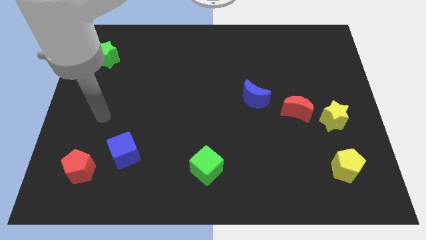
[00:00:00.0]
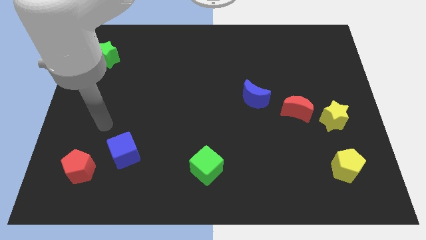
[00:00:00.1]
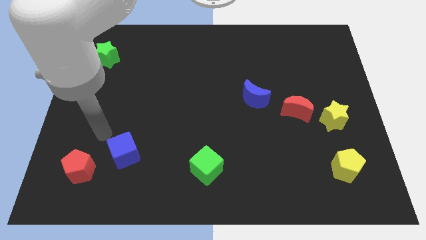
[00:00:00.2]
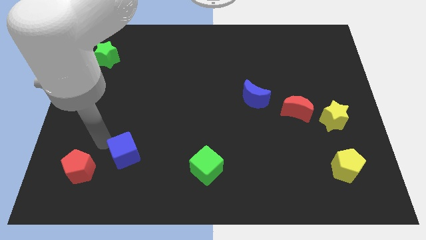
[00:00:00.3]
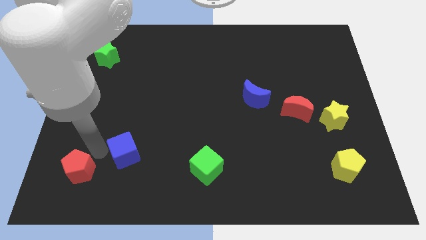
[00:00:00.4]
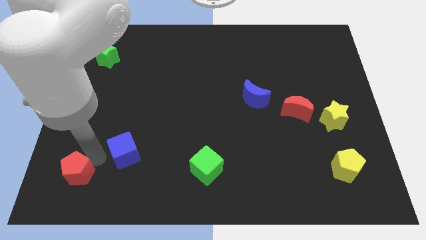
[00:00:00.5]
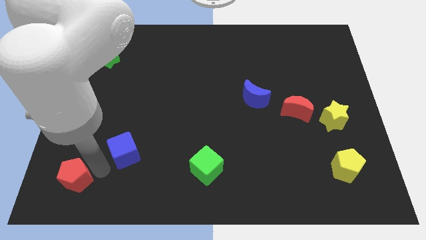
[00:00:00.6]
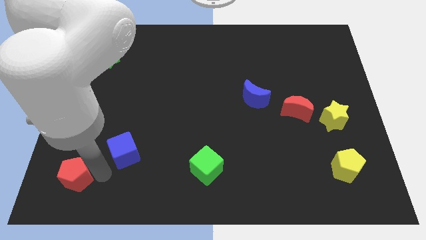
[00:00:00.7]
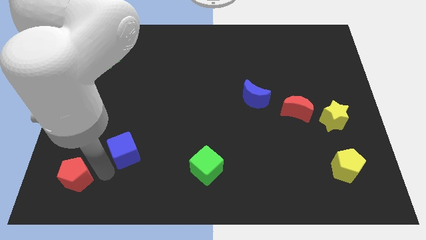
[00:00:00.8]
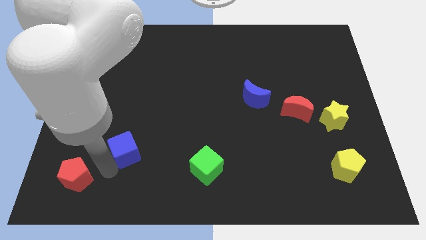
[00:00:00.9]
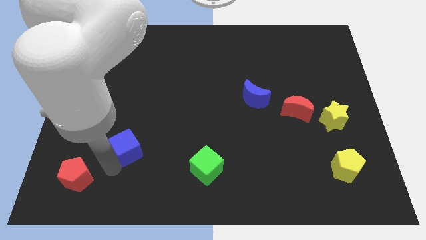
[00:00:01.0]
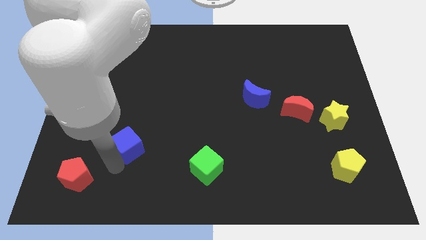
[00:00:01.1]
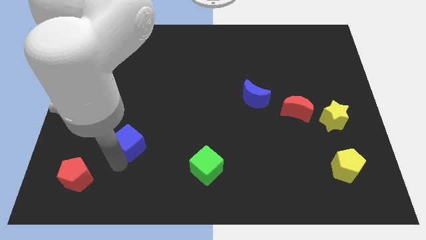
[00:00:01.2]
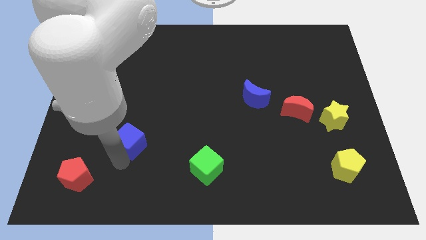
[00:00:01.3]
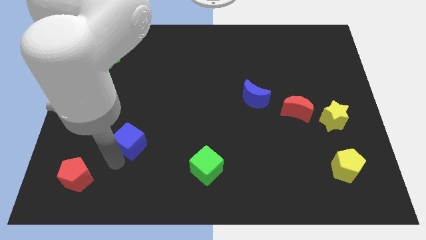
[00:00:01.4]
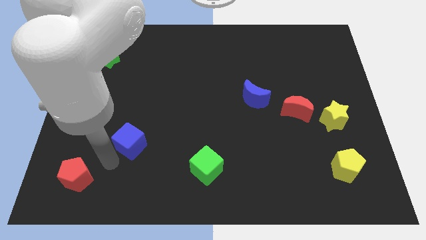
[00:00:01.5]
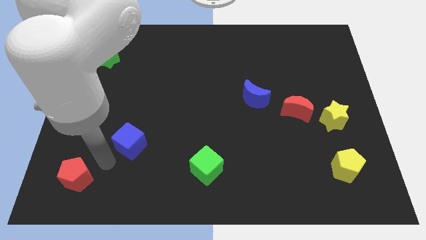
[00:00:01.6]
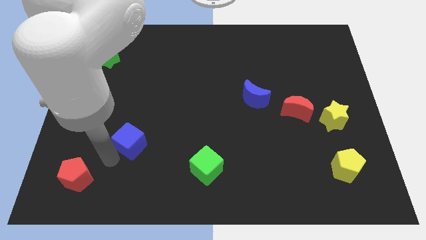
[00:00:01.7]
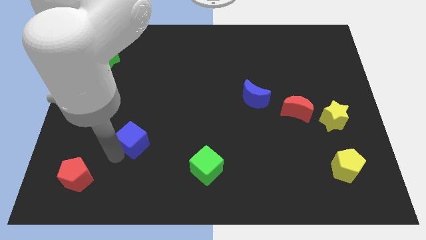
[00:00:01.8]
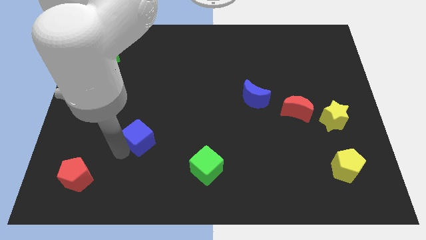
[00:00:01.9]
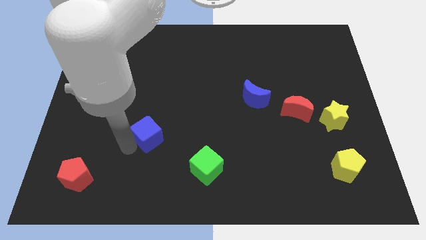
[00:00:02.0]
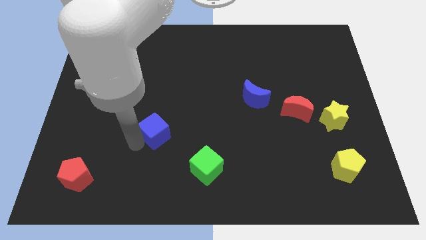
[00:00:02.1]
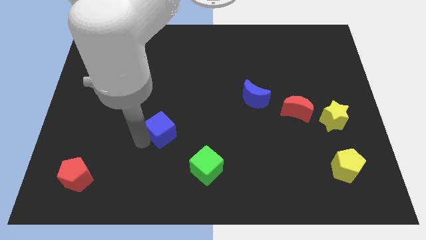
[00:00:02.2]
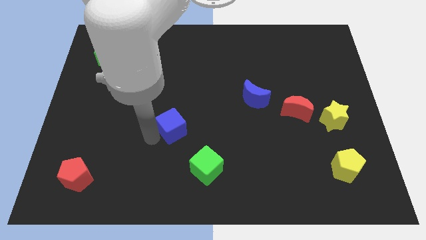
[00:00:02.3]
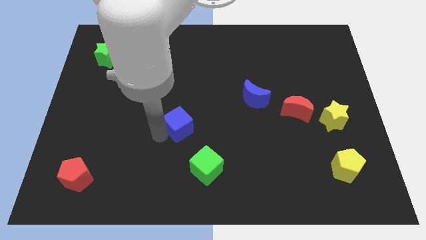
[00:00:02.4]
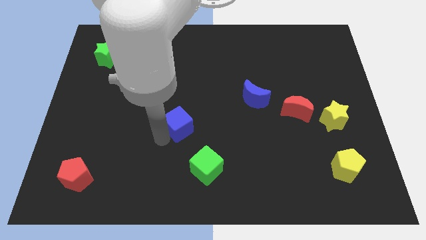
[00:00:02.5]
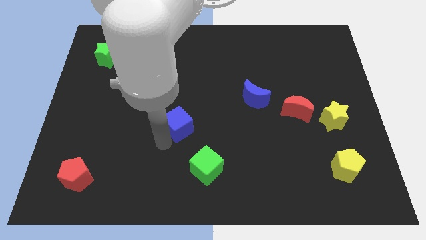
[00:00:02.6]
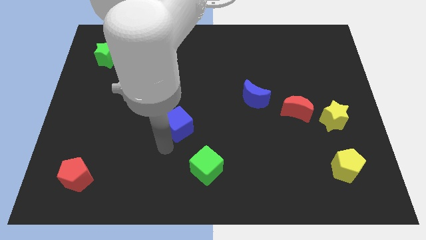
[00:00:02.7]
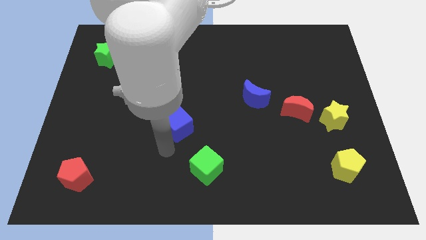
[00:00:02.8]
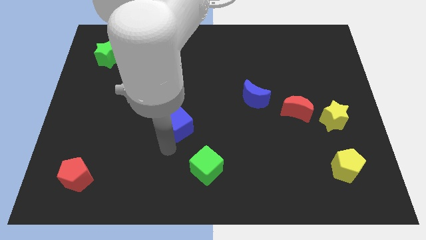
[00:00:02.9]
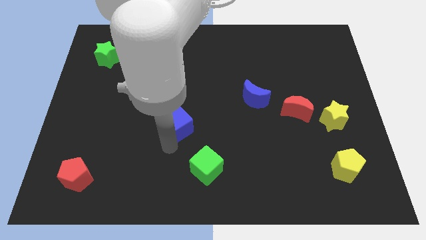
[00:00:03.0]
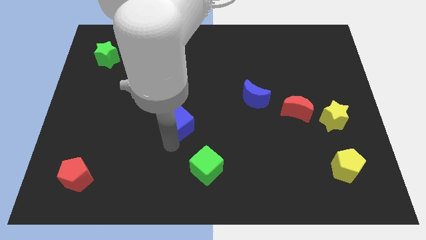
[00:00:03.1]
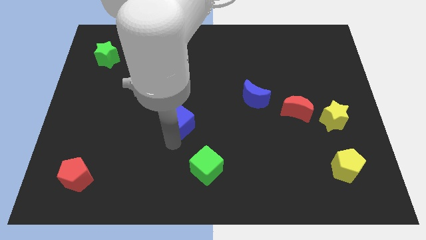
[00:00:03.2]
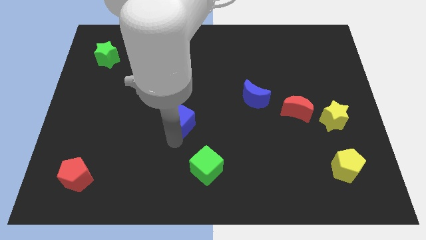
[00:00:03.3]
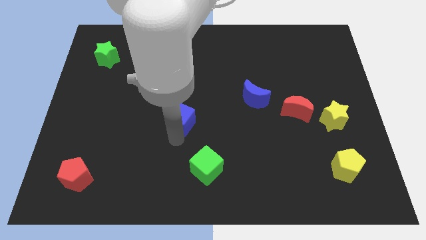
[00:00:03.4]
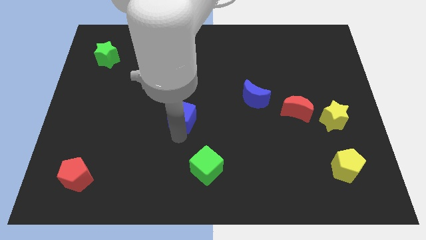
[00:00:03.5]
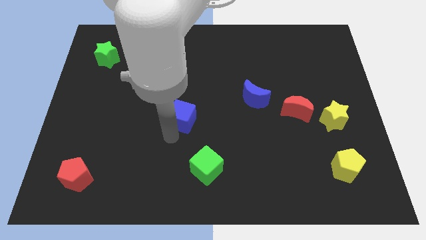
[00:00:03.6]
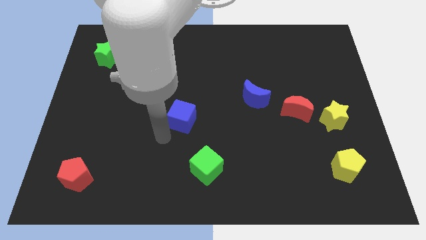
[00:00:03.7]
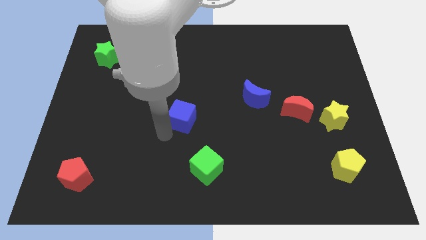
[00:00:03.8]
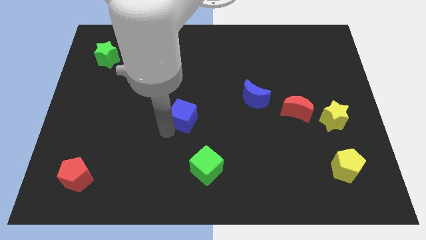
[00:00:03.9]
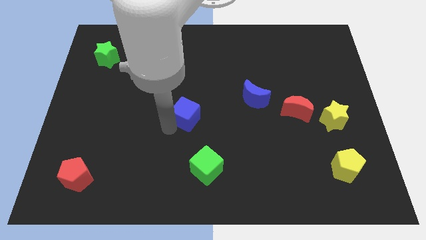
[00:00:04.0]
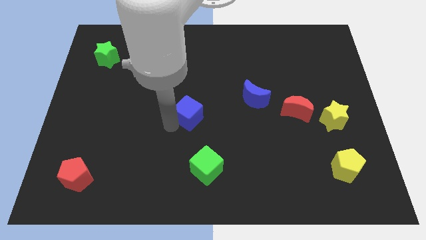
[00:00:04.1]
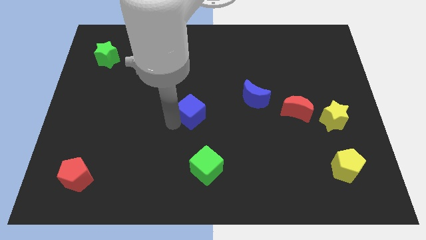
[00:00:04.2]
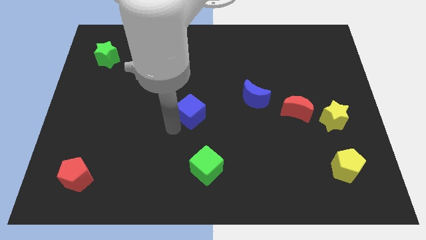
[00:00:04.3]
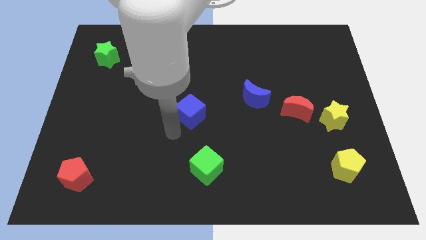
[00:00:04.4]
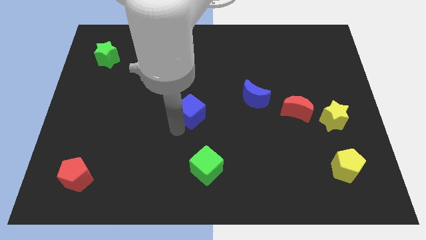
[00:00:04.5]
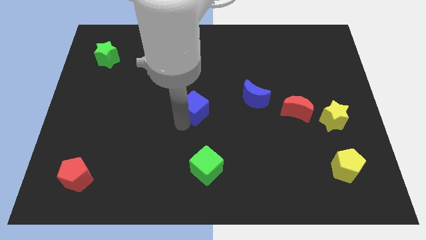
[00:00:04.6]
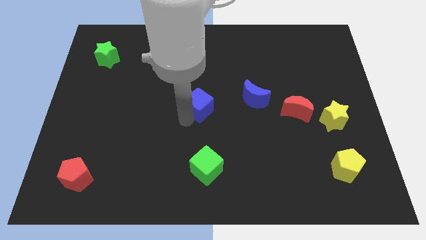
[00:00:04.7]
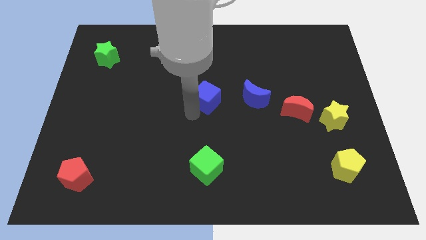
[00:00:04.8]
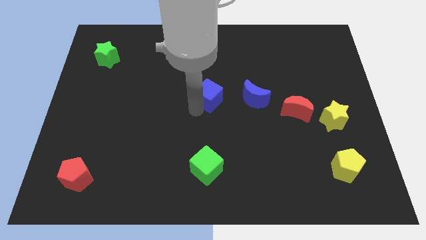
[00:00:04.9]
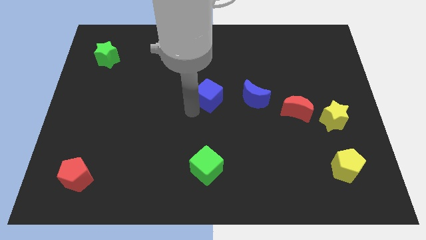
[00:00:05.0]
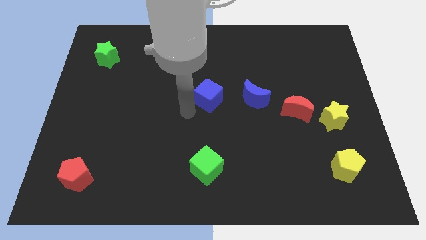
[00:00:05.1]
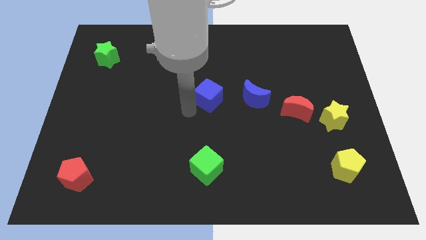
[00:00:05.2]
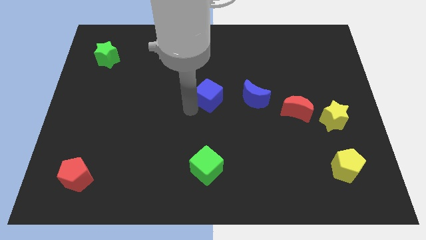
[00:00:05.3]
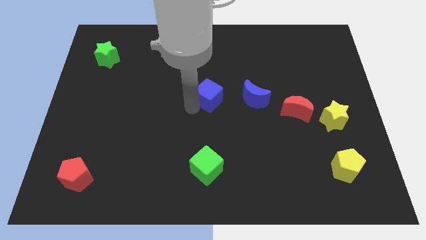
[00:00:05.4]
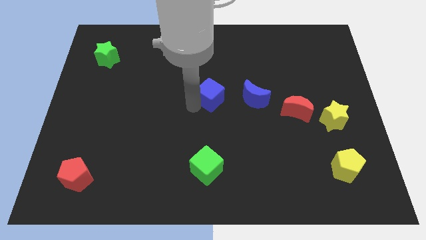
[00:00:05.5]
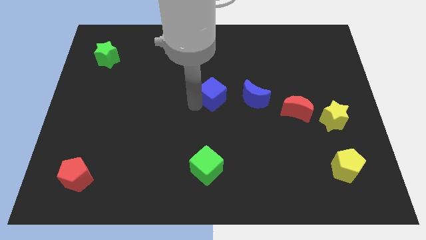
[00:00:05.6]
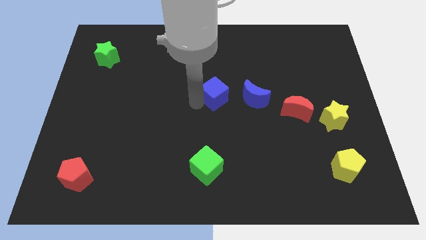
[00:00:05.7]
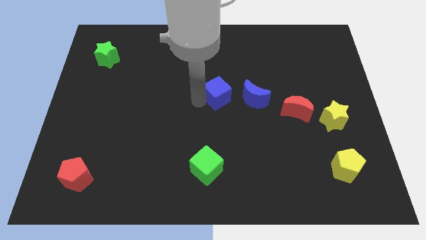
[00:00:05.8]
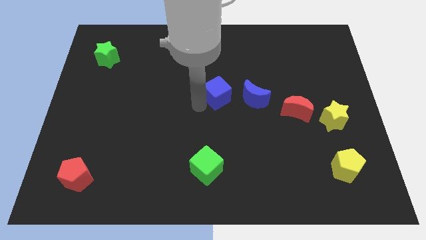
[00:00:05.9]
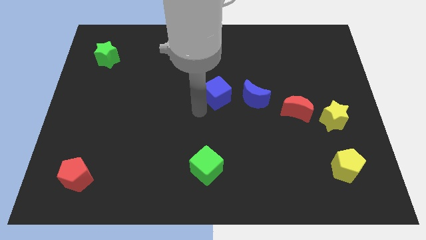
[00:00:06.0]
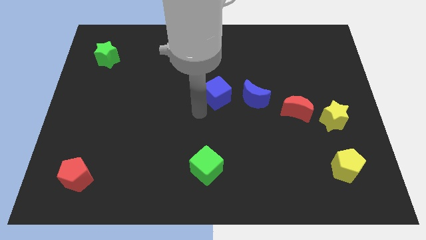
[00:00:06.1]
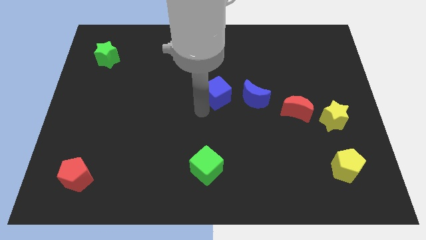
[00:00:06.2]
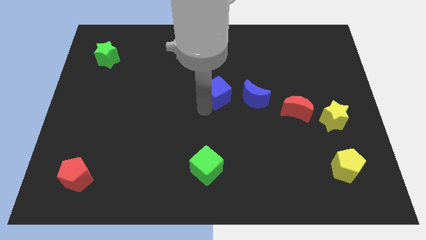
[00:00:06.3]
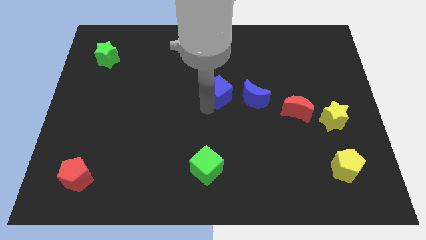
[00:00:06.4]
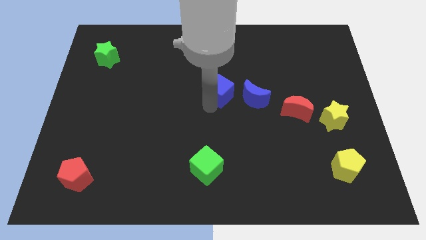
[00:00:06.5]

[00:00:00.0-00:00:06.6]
move the blue cube to the top left side of the blue moon

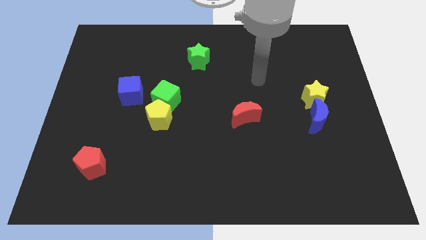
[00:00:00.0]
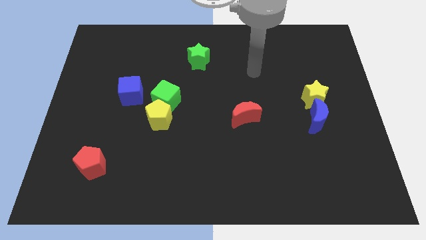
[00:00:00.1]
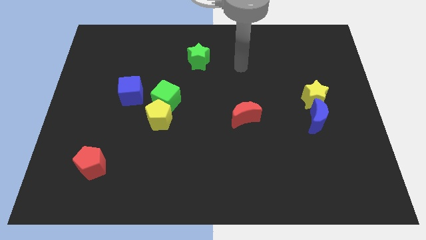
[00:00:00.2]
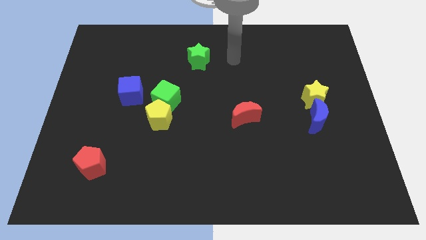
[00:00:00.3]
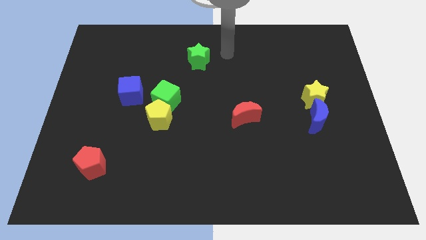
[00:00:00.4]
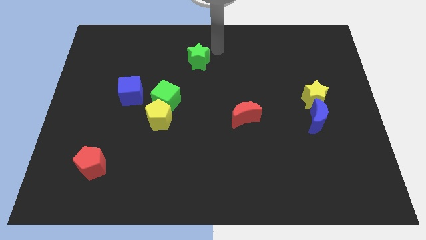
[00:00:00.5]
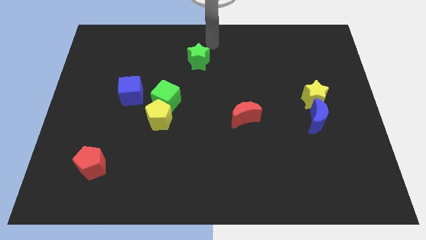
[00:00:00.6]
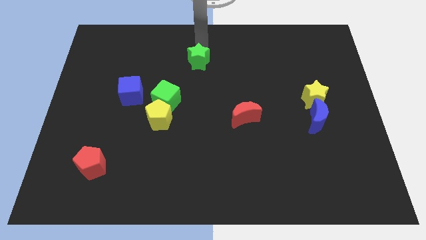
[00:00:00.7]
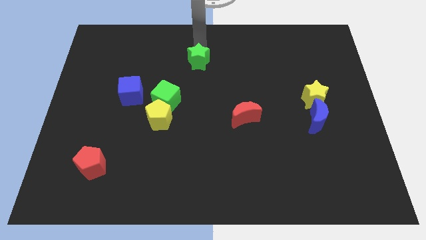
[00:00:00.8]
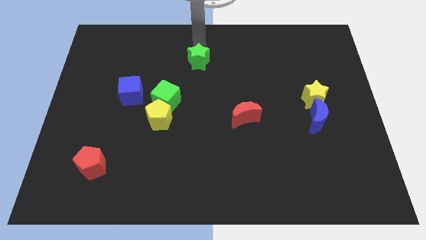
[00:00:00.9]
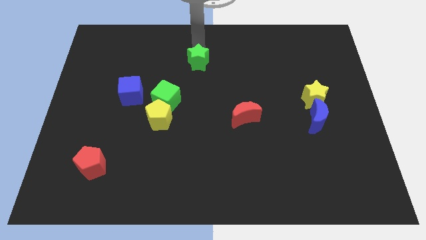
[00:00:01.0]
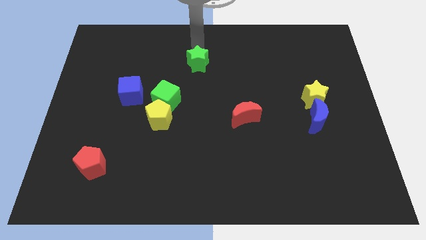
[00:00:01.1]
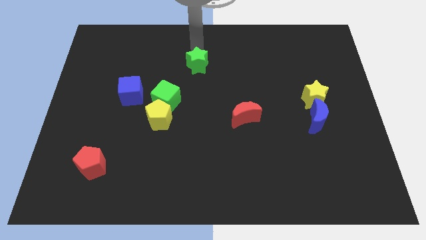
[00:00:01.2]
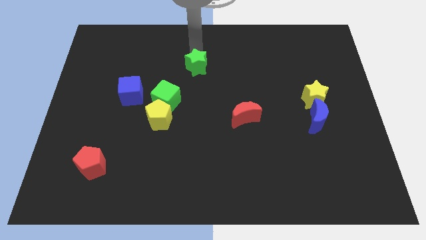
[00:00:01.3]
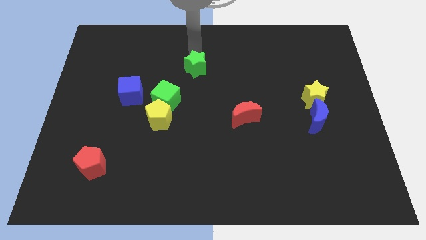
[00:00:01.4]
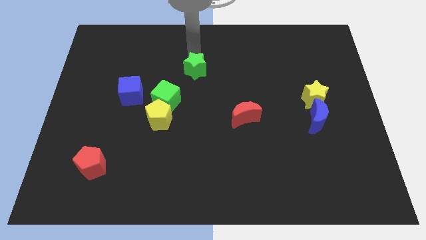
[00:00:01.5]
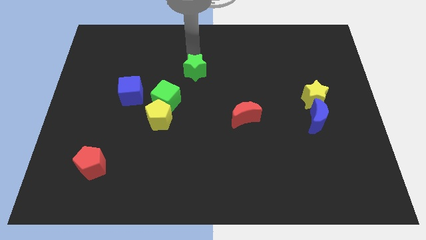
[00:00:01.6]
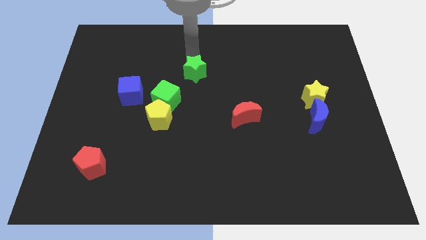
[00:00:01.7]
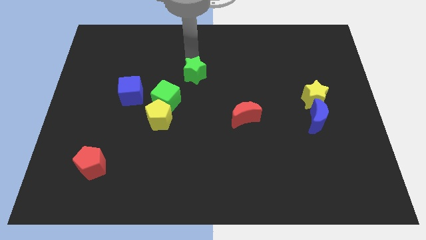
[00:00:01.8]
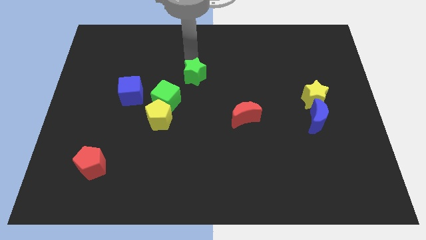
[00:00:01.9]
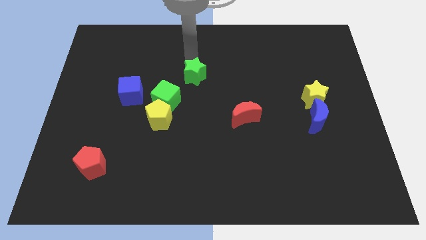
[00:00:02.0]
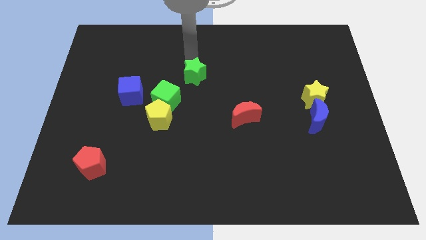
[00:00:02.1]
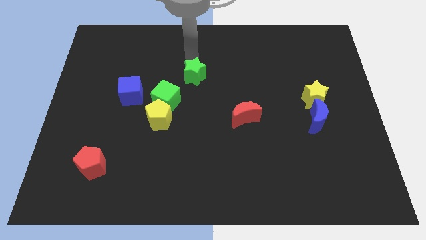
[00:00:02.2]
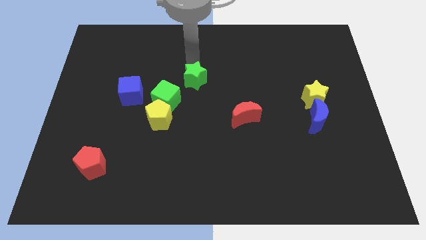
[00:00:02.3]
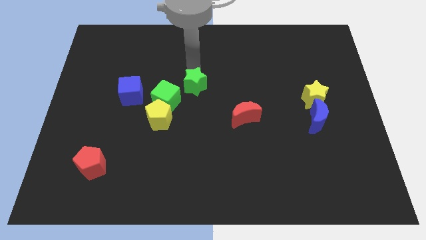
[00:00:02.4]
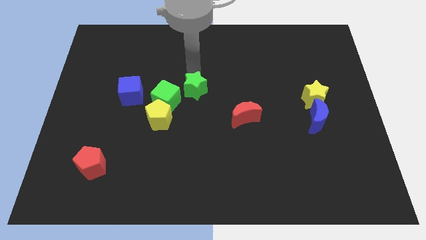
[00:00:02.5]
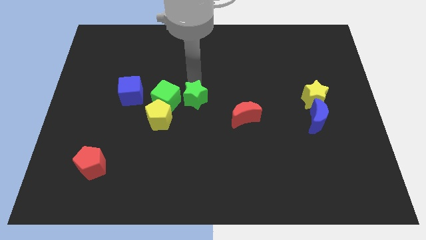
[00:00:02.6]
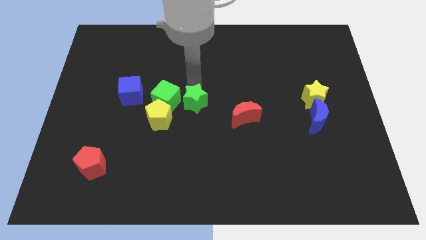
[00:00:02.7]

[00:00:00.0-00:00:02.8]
slide the green star to the left side of the red moon
